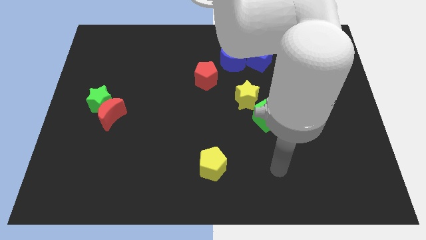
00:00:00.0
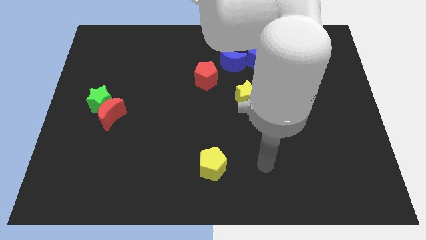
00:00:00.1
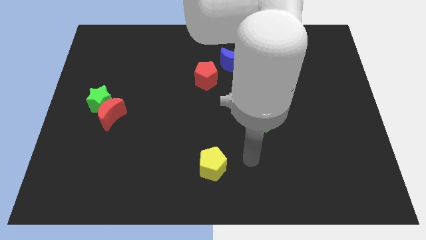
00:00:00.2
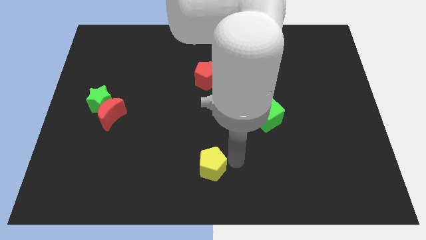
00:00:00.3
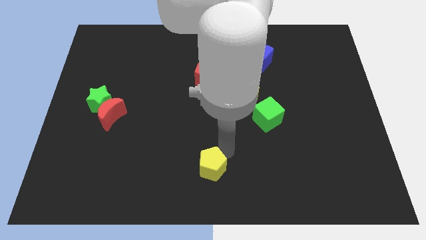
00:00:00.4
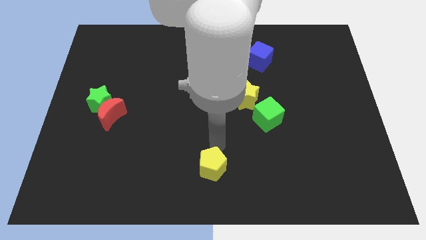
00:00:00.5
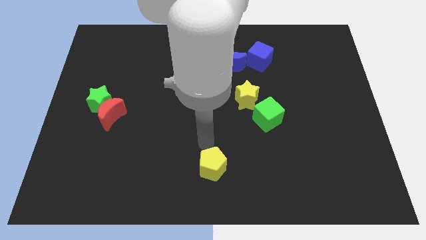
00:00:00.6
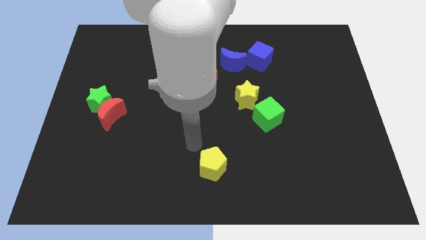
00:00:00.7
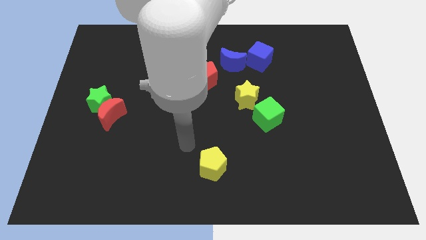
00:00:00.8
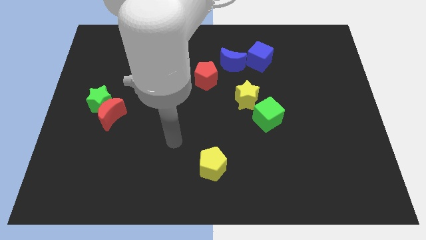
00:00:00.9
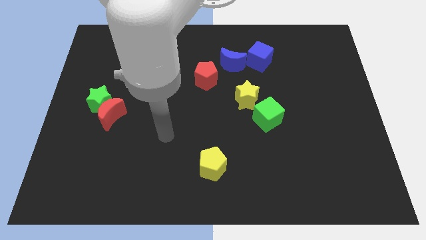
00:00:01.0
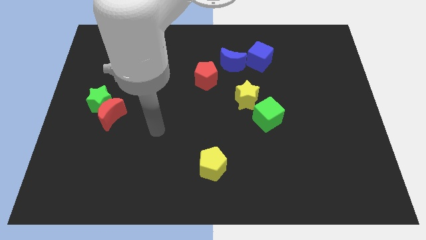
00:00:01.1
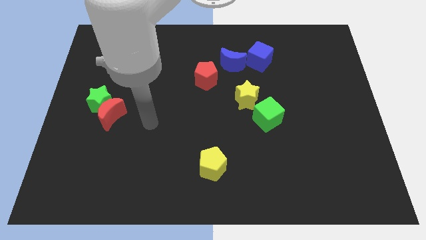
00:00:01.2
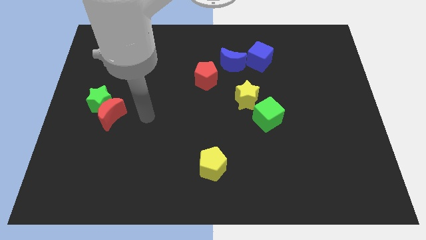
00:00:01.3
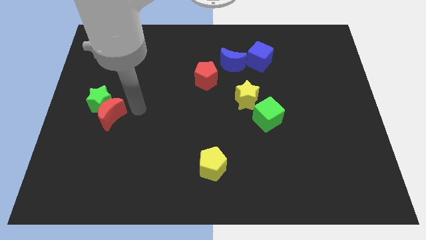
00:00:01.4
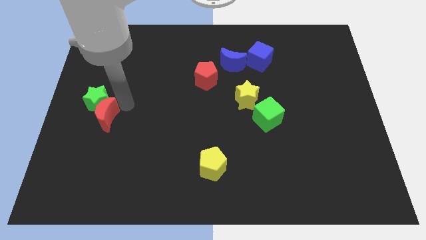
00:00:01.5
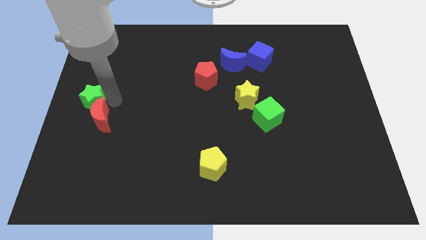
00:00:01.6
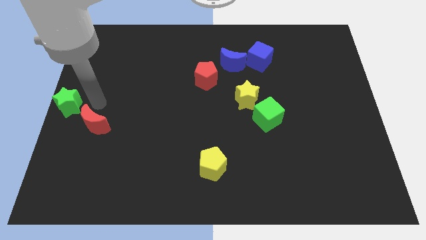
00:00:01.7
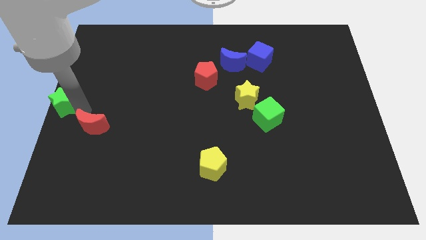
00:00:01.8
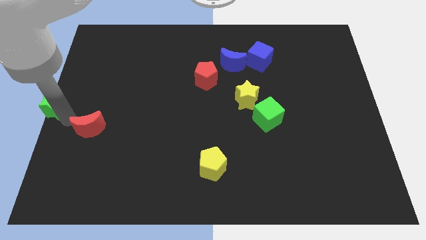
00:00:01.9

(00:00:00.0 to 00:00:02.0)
pull the red moon apart from the green star

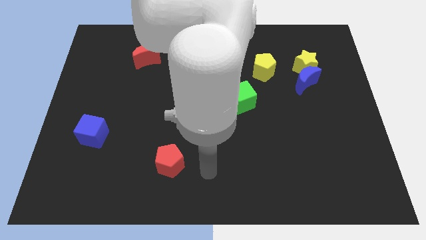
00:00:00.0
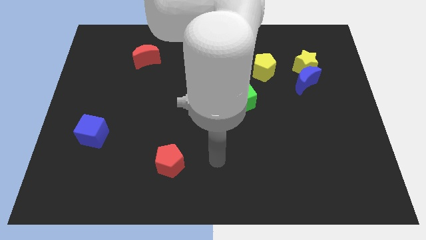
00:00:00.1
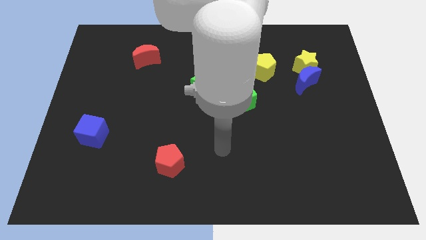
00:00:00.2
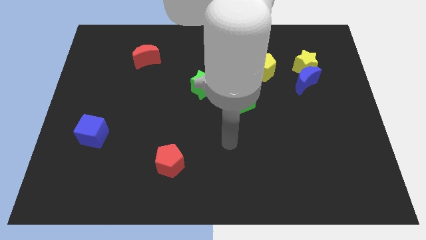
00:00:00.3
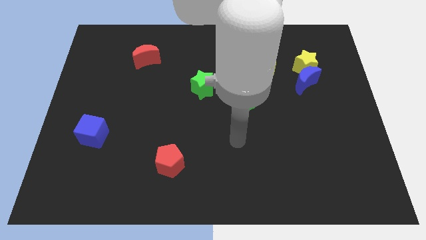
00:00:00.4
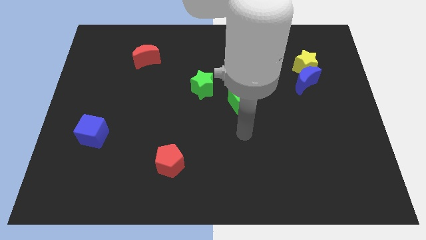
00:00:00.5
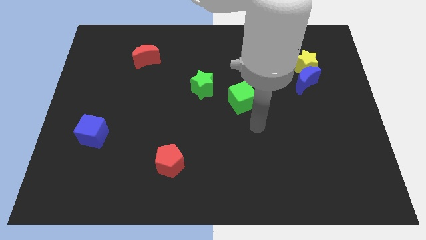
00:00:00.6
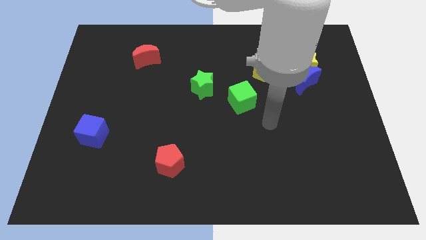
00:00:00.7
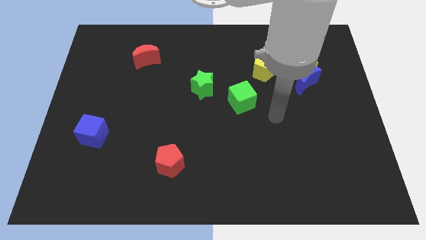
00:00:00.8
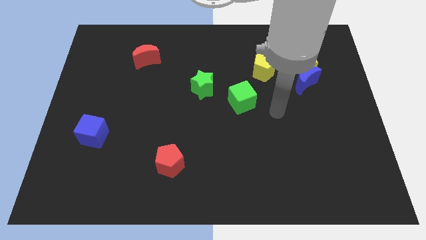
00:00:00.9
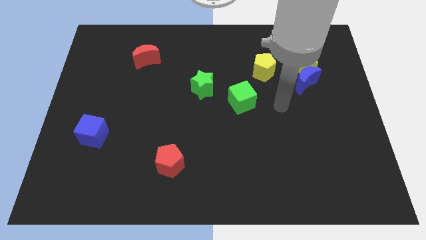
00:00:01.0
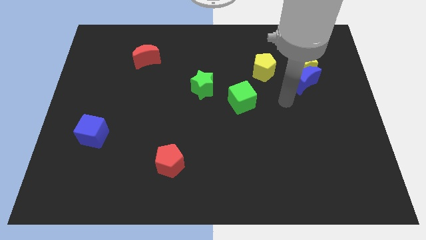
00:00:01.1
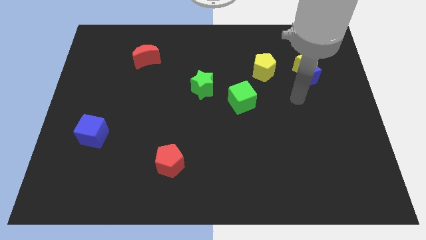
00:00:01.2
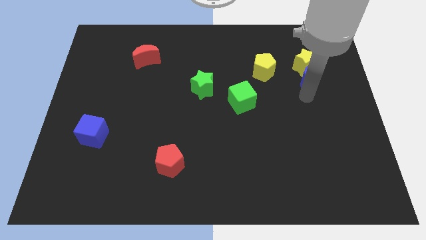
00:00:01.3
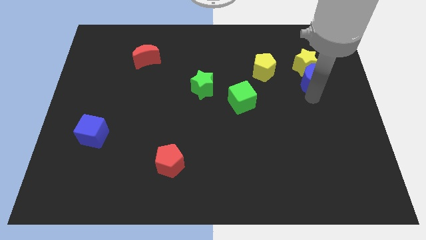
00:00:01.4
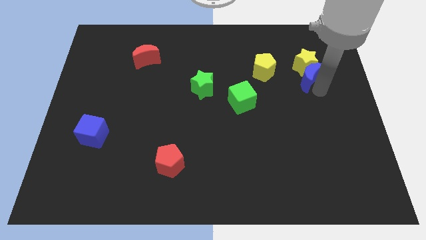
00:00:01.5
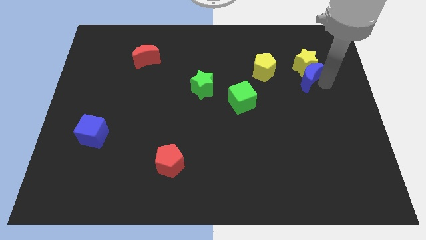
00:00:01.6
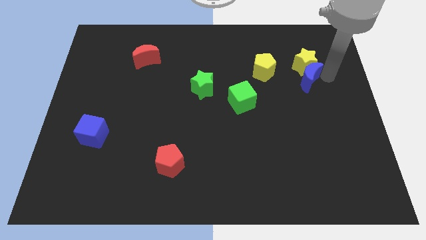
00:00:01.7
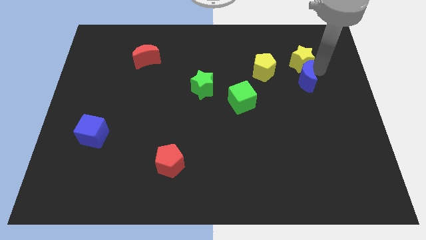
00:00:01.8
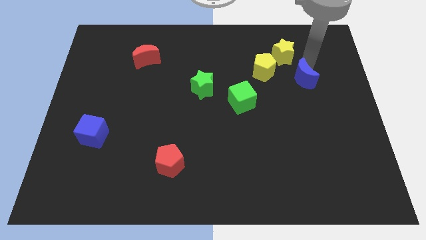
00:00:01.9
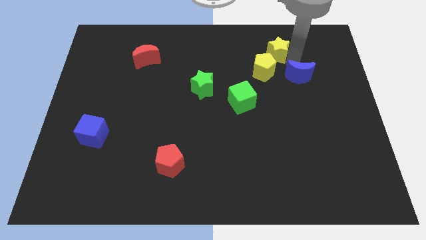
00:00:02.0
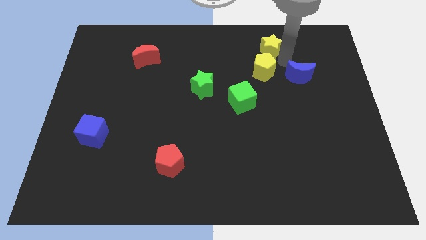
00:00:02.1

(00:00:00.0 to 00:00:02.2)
separate the blue moon from the yellow star

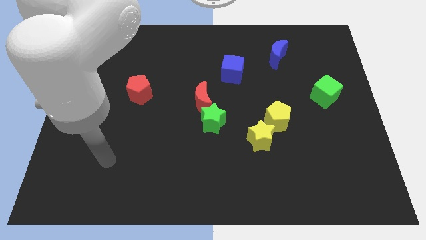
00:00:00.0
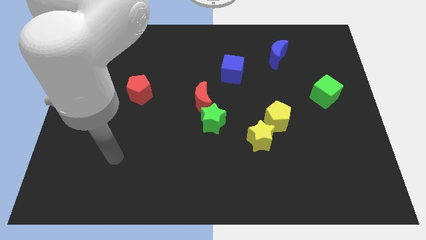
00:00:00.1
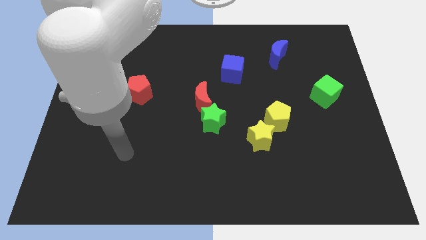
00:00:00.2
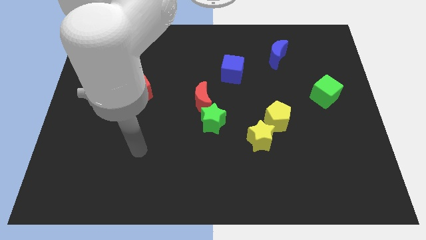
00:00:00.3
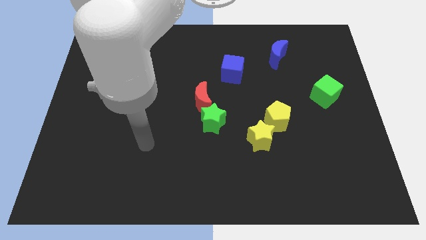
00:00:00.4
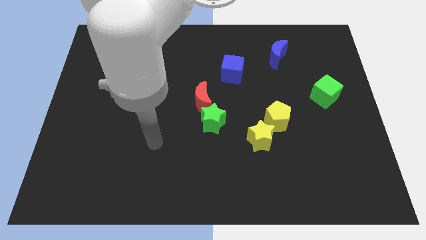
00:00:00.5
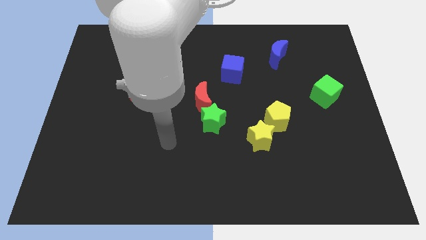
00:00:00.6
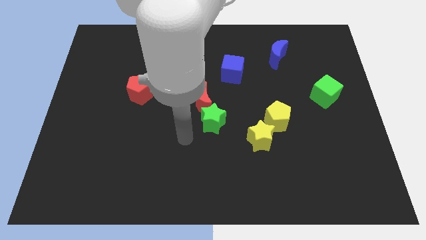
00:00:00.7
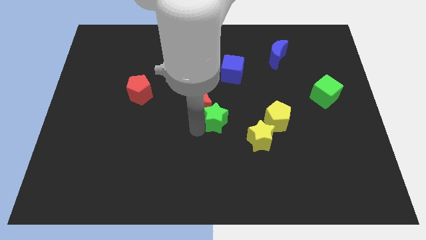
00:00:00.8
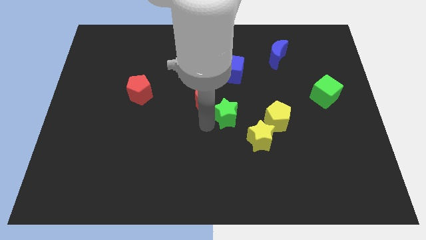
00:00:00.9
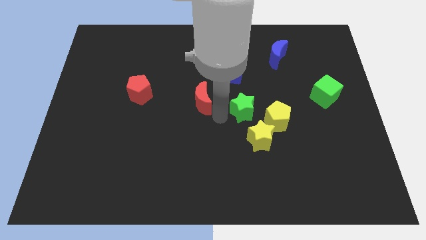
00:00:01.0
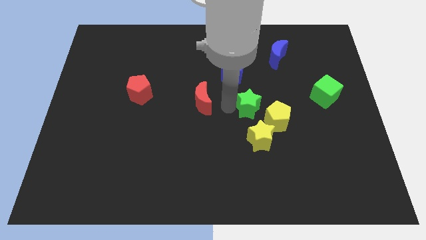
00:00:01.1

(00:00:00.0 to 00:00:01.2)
separate the red moon from the green star

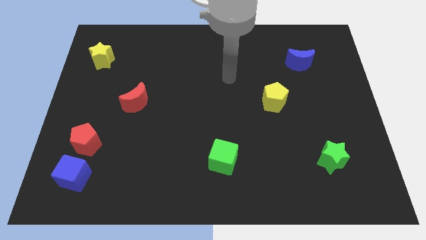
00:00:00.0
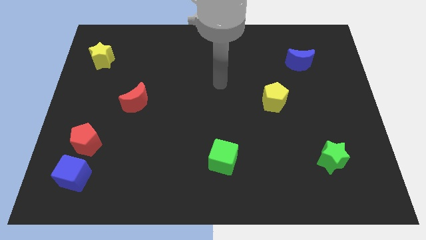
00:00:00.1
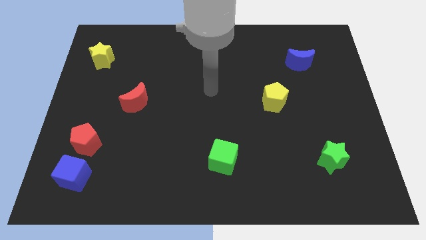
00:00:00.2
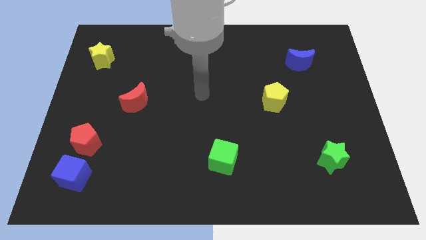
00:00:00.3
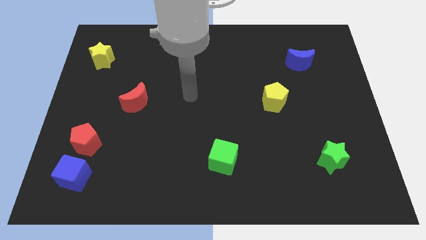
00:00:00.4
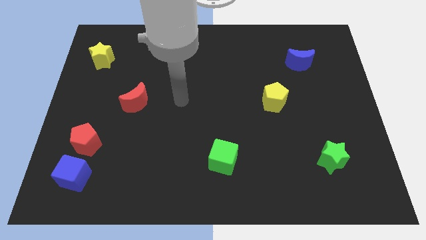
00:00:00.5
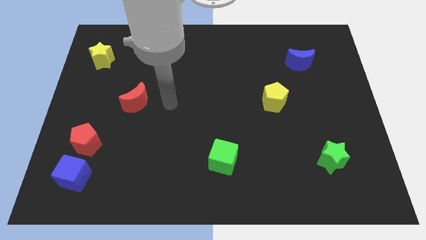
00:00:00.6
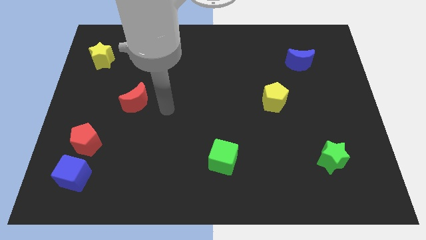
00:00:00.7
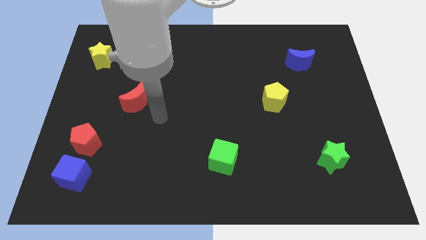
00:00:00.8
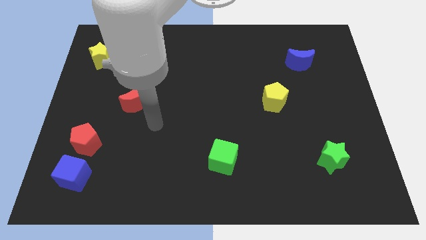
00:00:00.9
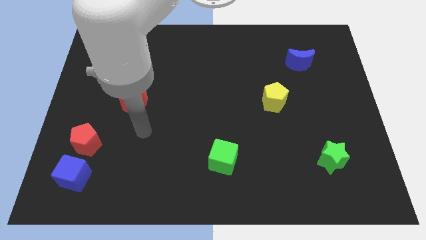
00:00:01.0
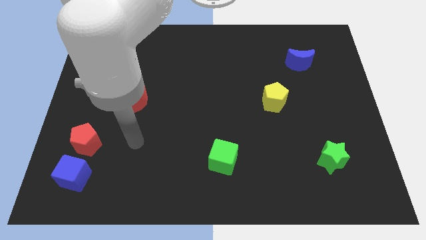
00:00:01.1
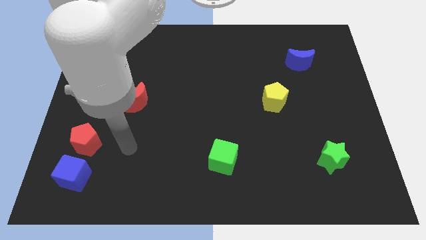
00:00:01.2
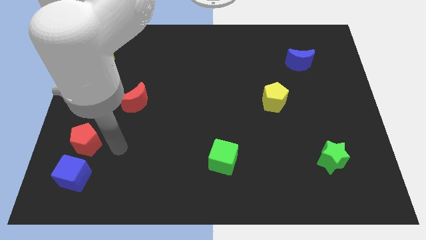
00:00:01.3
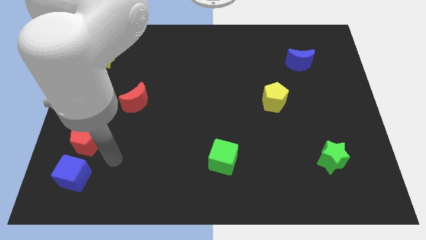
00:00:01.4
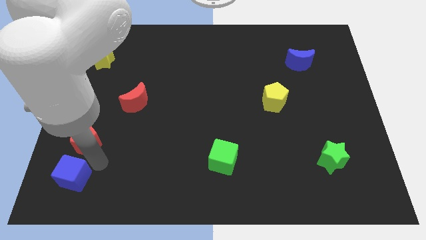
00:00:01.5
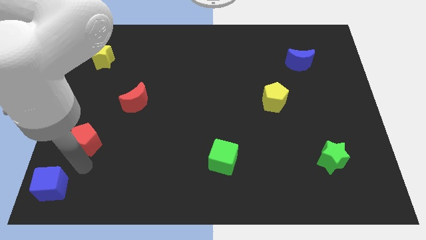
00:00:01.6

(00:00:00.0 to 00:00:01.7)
move the red pentagon away from the blue cube

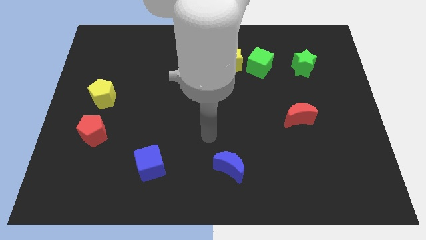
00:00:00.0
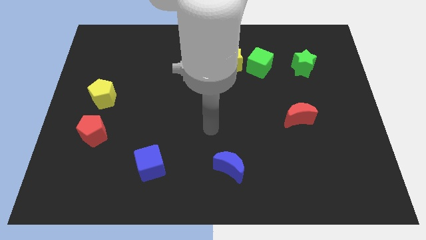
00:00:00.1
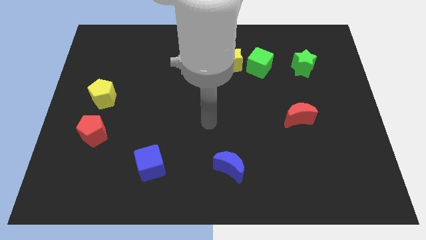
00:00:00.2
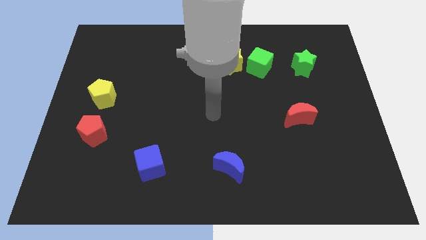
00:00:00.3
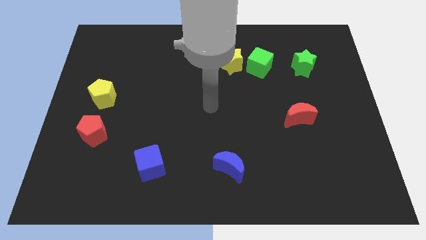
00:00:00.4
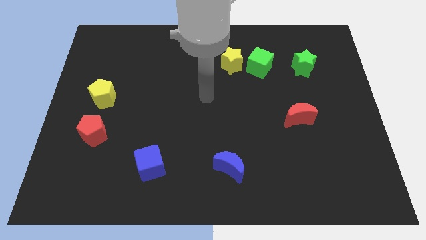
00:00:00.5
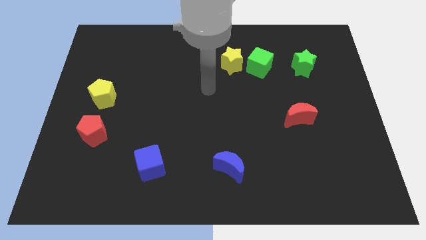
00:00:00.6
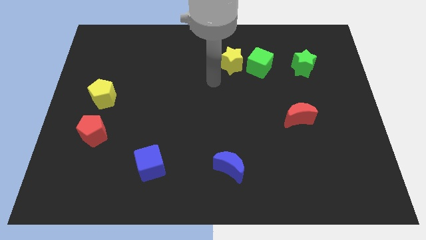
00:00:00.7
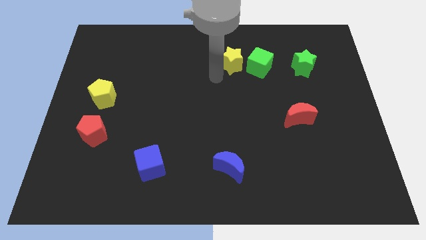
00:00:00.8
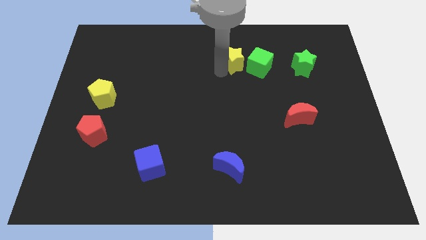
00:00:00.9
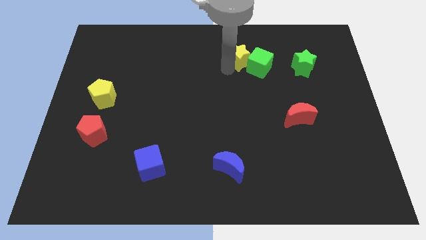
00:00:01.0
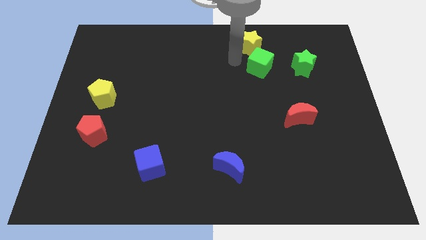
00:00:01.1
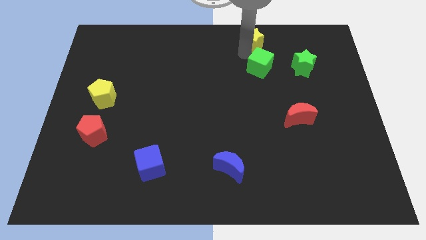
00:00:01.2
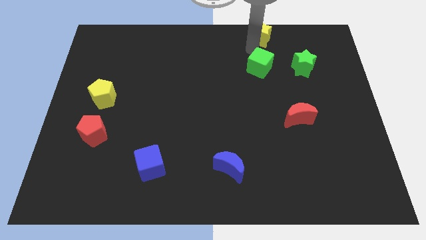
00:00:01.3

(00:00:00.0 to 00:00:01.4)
move the green cube away from the yellow star

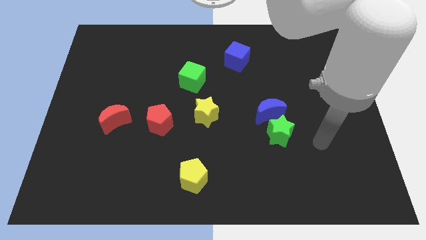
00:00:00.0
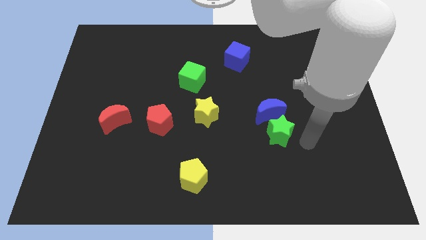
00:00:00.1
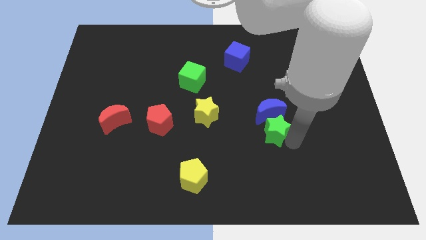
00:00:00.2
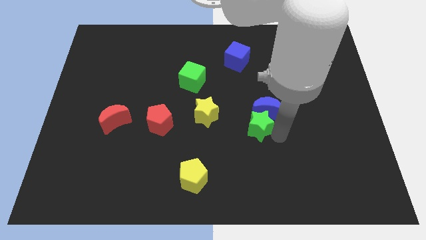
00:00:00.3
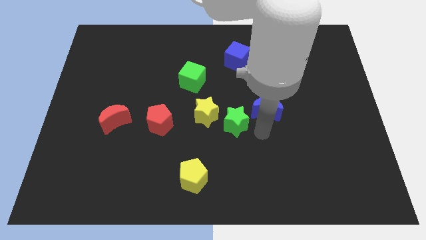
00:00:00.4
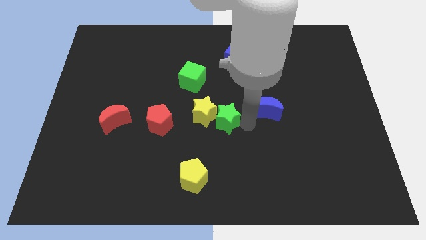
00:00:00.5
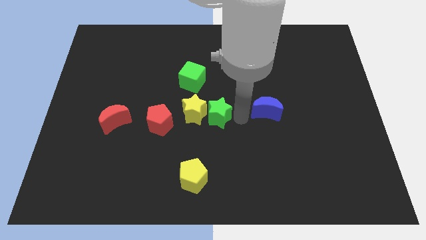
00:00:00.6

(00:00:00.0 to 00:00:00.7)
move the blue moon away from the green star
